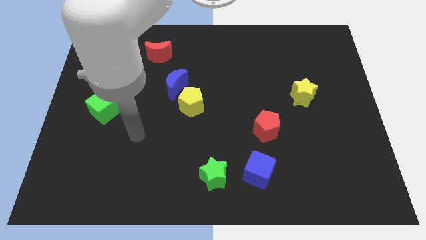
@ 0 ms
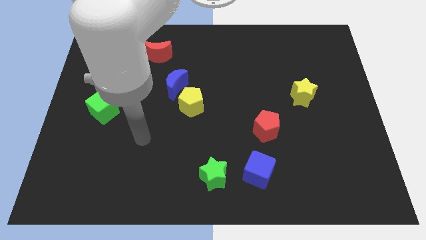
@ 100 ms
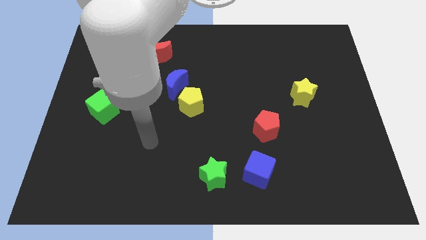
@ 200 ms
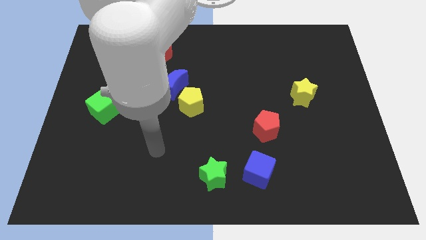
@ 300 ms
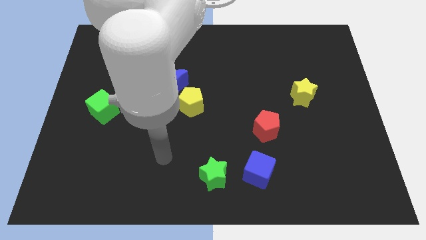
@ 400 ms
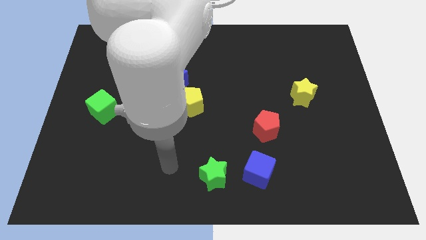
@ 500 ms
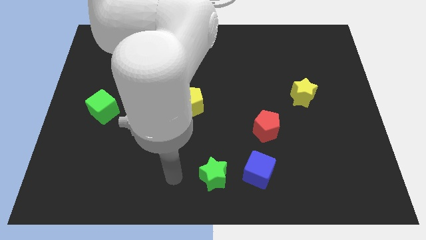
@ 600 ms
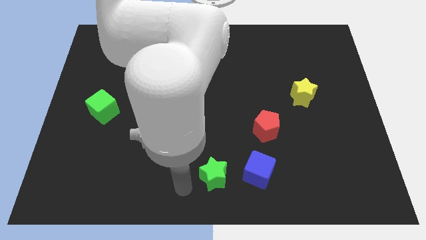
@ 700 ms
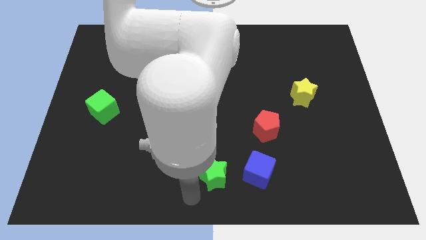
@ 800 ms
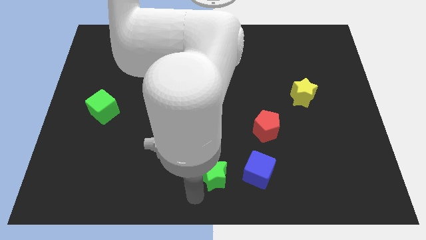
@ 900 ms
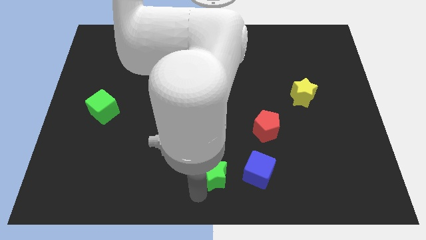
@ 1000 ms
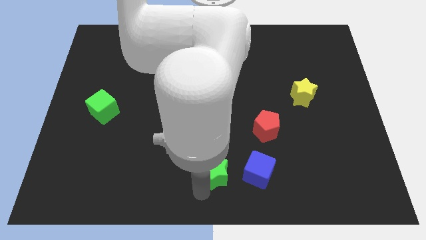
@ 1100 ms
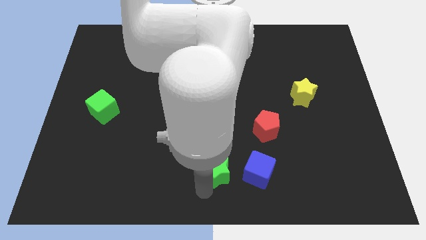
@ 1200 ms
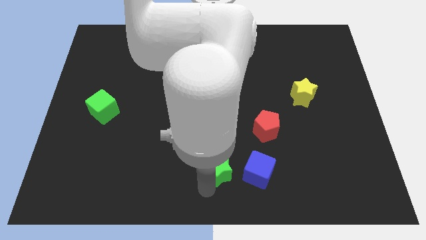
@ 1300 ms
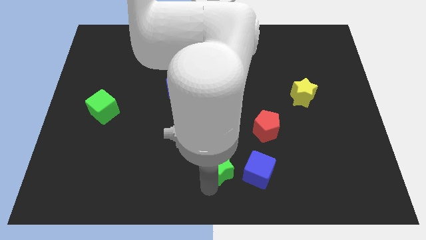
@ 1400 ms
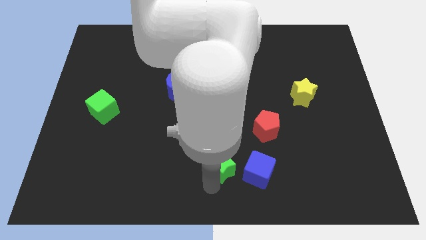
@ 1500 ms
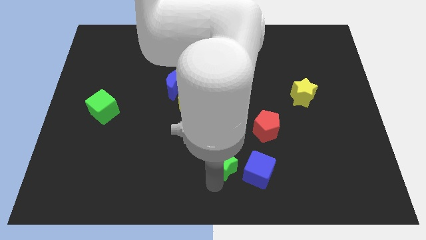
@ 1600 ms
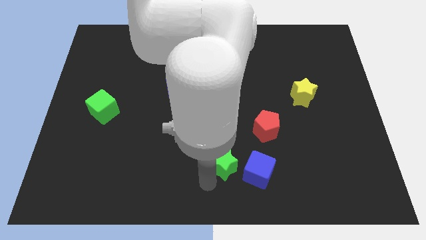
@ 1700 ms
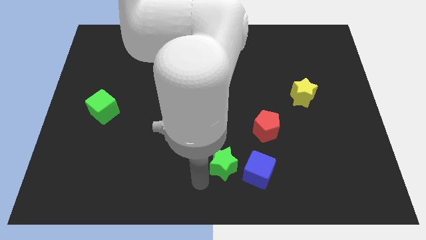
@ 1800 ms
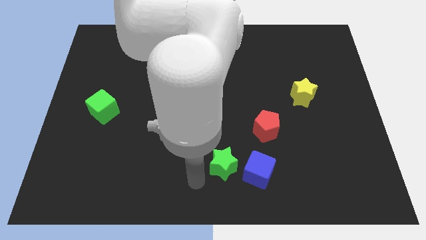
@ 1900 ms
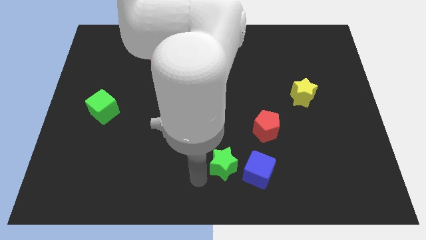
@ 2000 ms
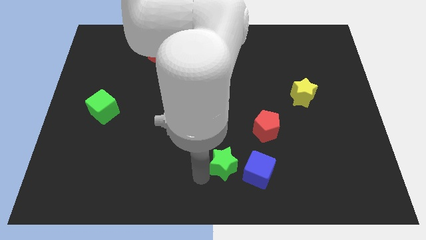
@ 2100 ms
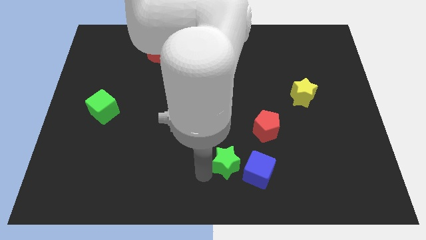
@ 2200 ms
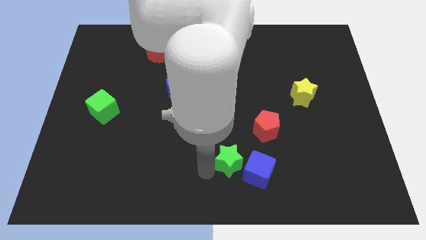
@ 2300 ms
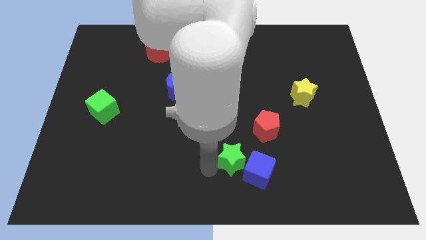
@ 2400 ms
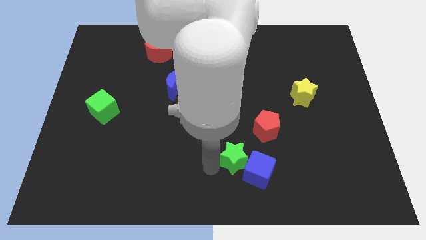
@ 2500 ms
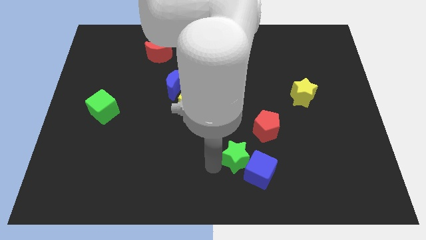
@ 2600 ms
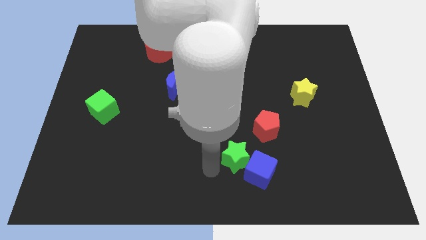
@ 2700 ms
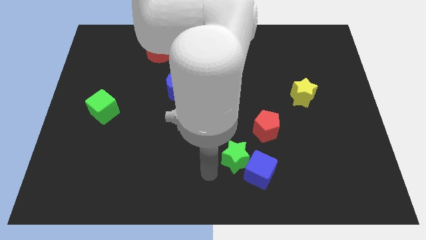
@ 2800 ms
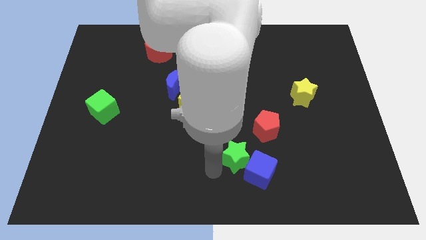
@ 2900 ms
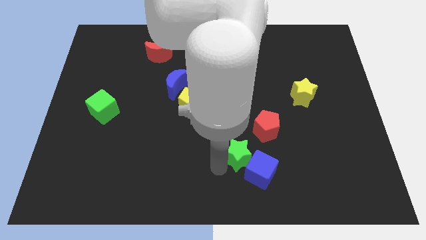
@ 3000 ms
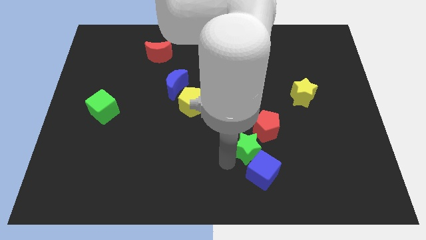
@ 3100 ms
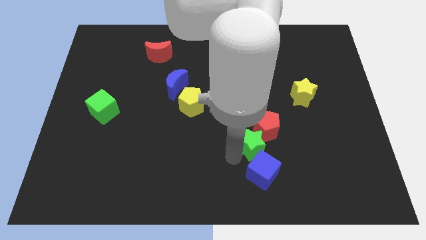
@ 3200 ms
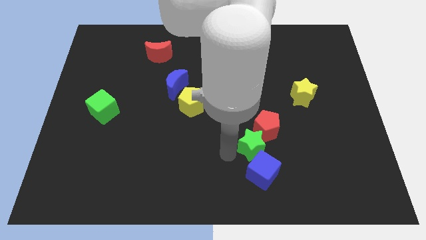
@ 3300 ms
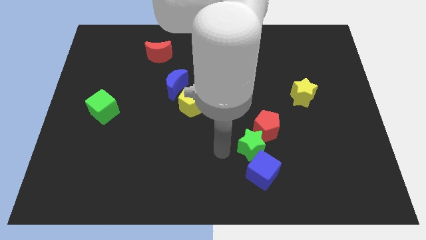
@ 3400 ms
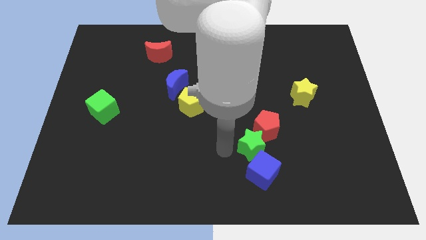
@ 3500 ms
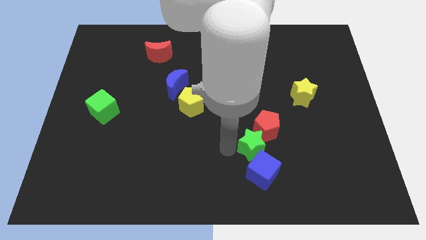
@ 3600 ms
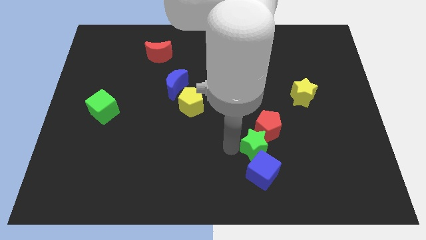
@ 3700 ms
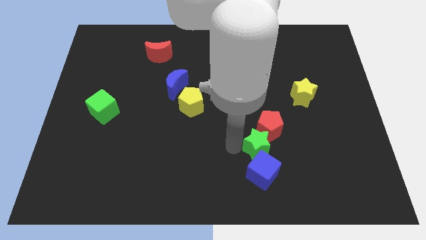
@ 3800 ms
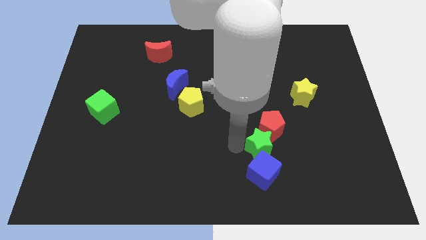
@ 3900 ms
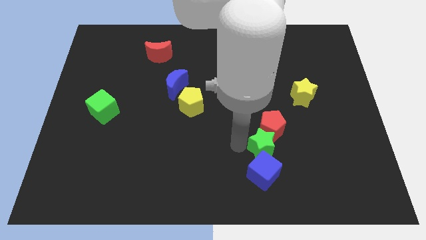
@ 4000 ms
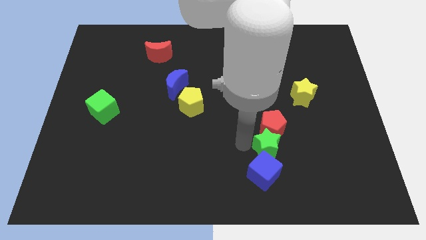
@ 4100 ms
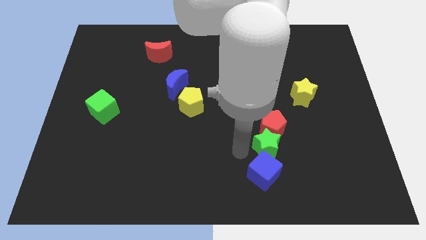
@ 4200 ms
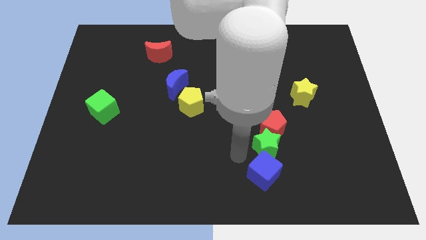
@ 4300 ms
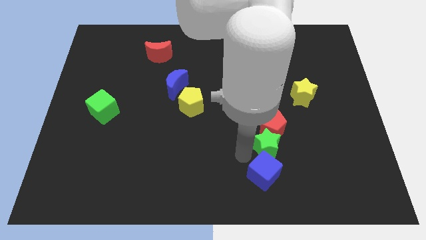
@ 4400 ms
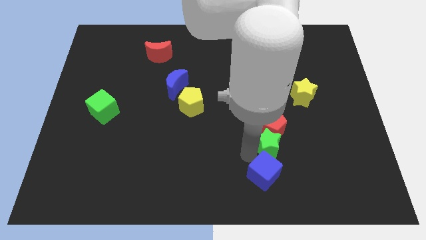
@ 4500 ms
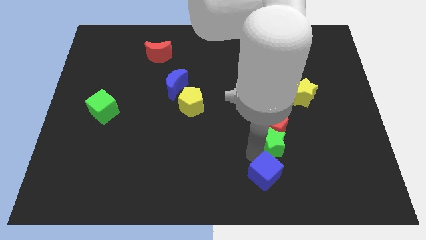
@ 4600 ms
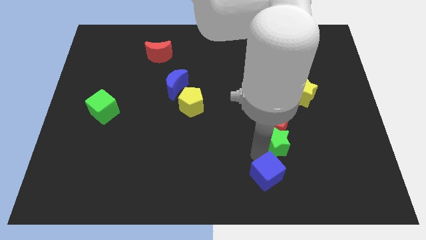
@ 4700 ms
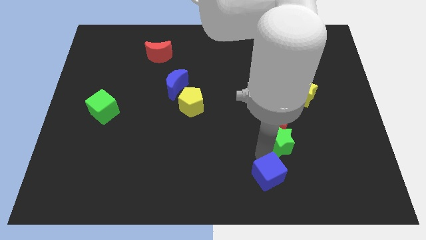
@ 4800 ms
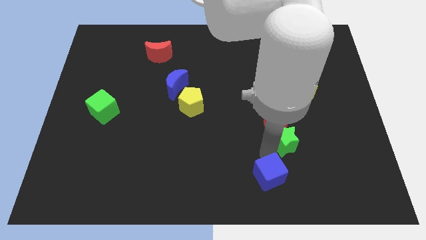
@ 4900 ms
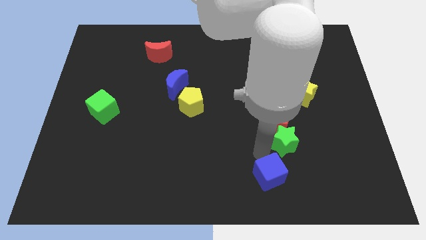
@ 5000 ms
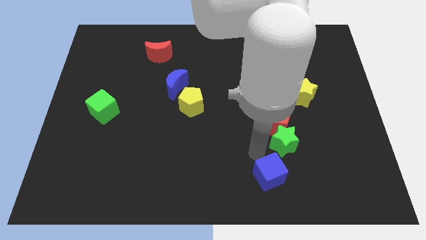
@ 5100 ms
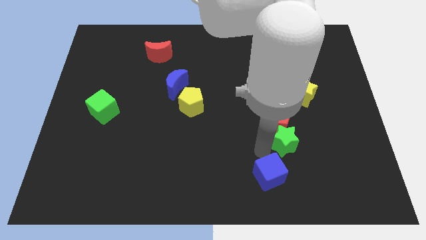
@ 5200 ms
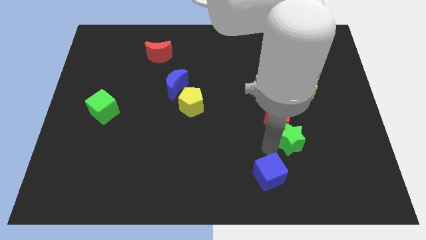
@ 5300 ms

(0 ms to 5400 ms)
push the green star below the yellow star

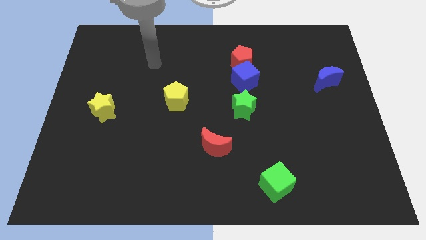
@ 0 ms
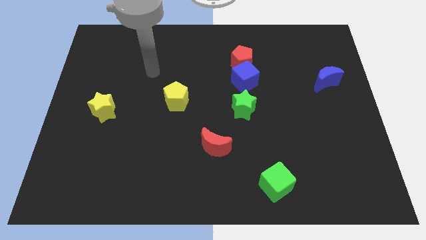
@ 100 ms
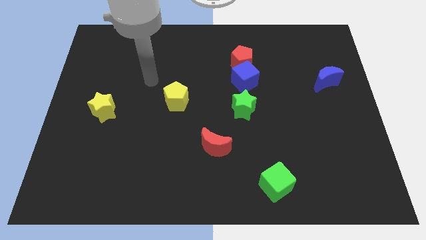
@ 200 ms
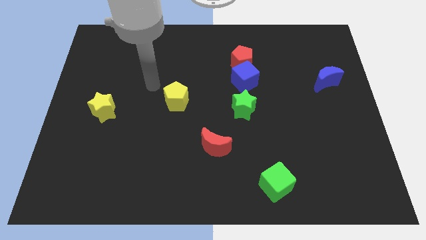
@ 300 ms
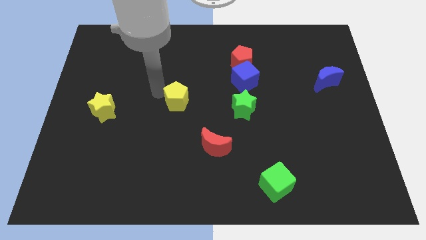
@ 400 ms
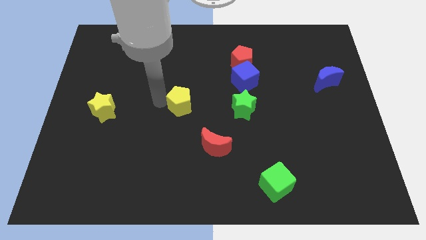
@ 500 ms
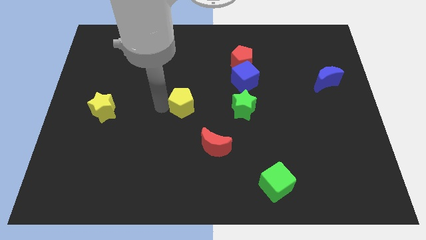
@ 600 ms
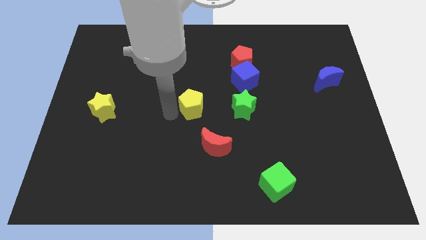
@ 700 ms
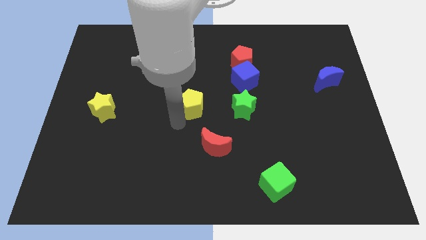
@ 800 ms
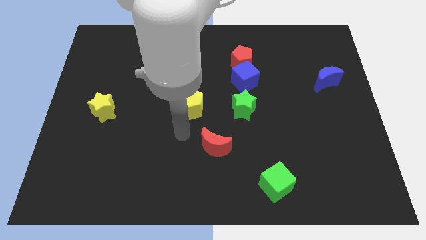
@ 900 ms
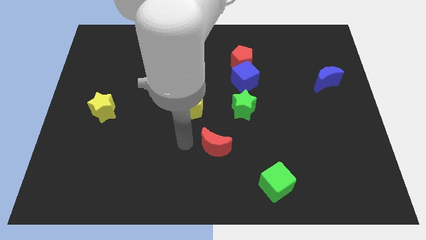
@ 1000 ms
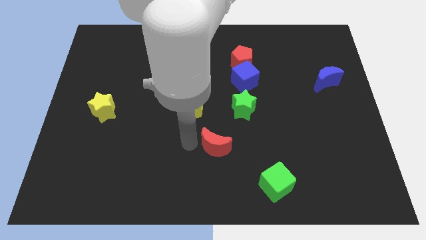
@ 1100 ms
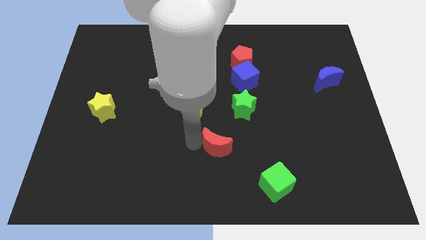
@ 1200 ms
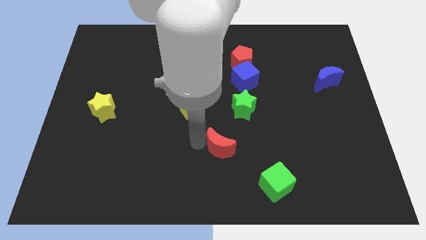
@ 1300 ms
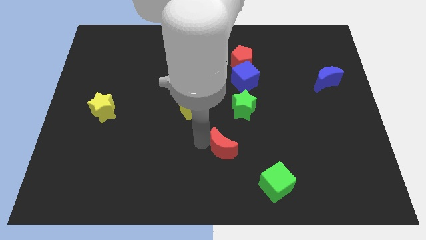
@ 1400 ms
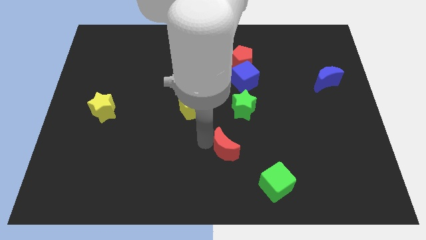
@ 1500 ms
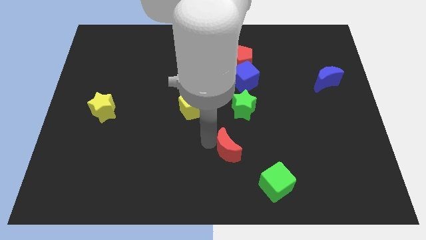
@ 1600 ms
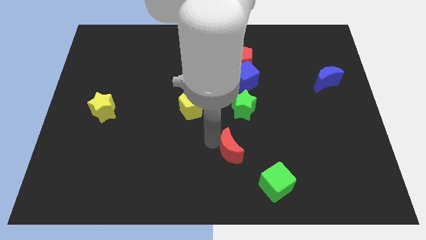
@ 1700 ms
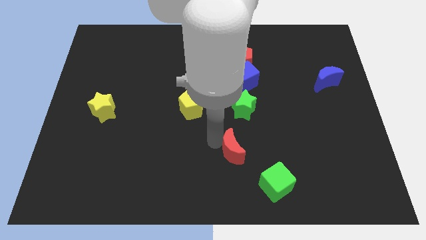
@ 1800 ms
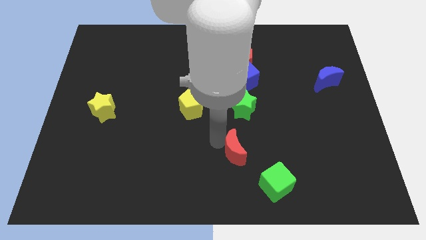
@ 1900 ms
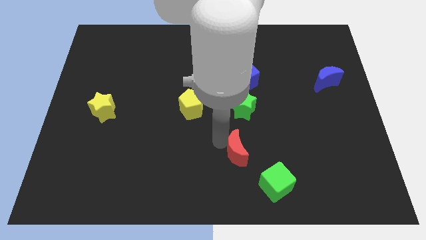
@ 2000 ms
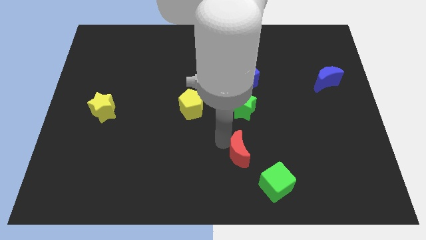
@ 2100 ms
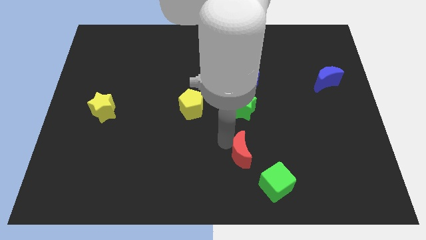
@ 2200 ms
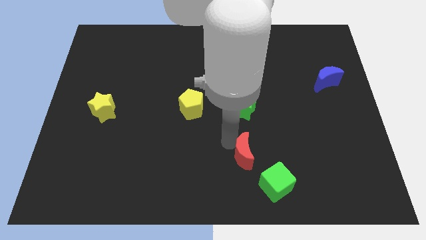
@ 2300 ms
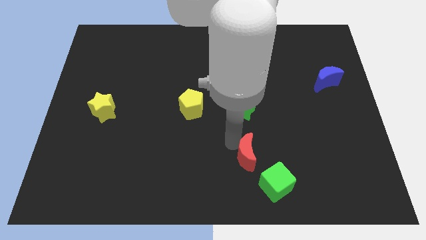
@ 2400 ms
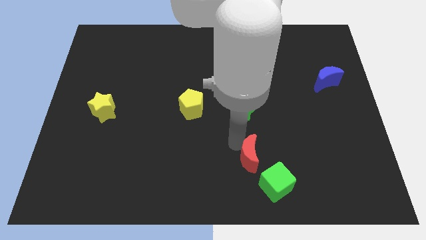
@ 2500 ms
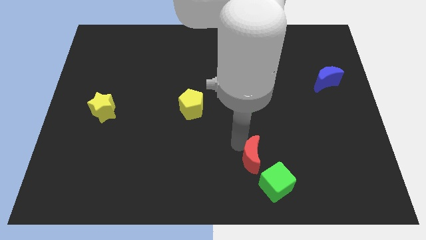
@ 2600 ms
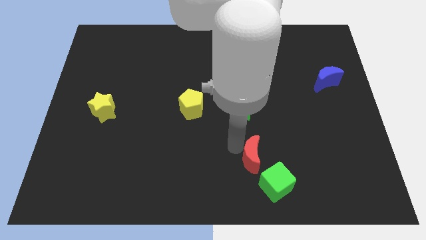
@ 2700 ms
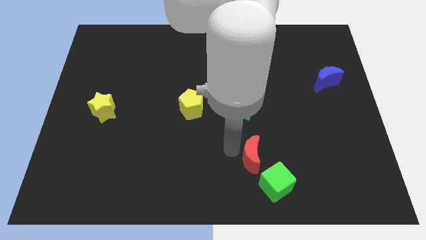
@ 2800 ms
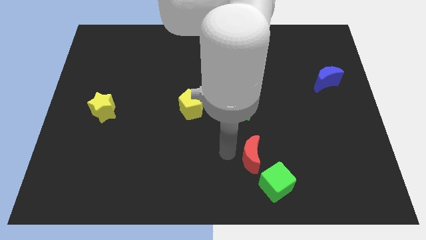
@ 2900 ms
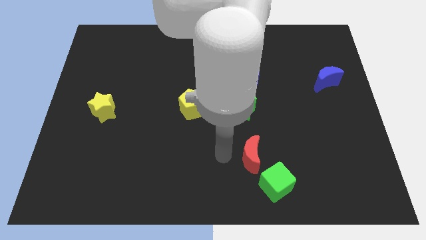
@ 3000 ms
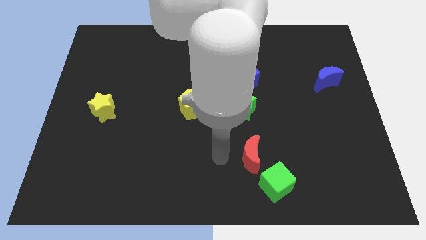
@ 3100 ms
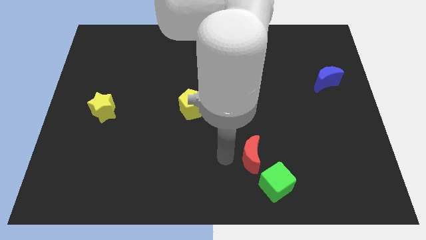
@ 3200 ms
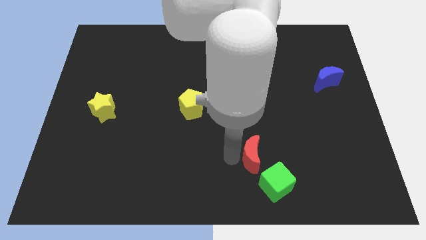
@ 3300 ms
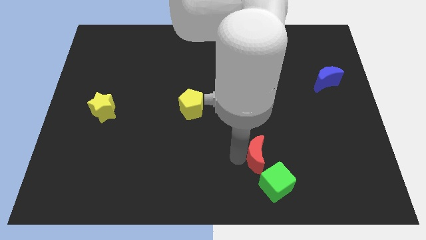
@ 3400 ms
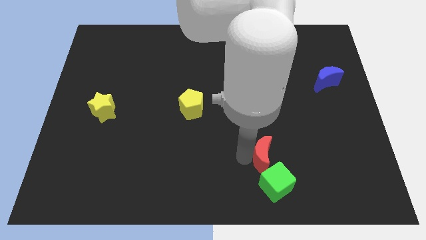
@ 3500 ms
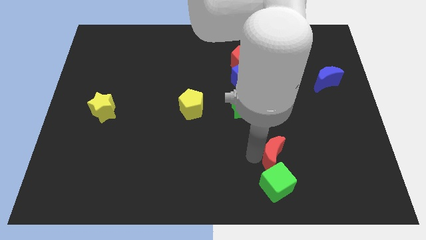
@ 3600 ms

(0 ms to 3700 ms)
move the red moon diagonally up and to the right of the green cube
